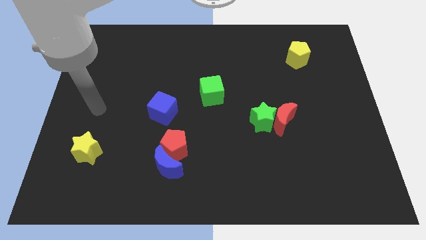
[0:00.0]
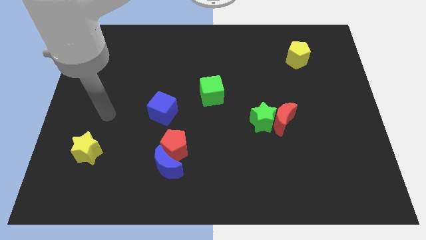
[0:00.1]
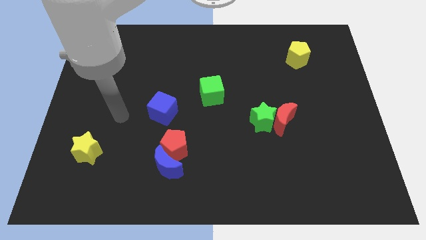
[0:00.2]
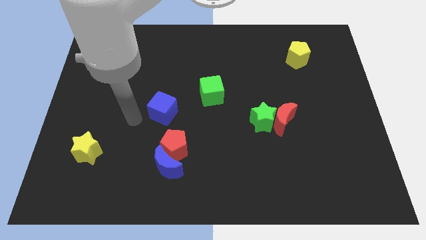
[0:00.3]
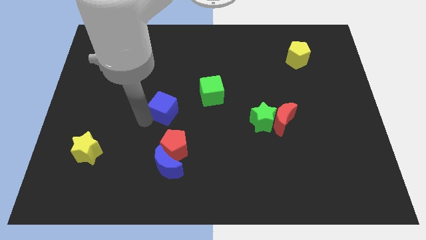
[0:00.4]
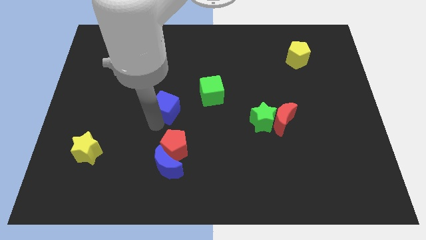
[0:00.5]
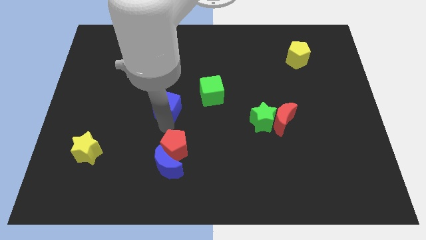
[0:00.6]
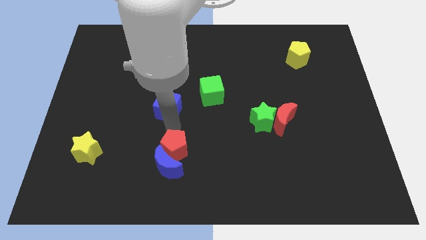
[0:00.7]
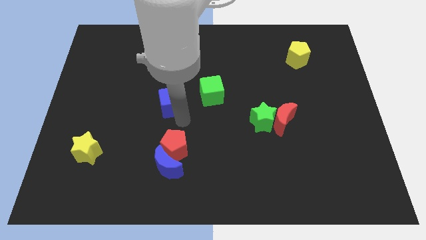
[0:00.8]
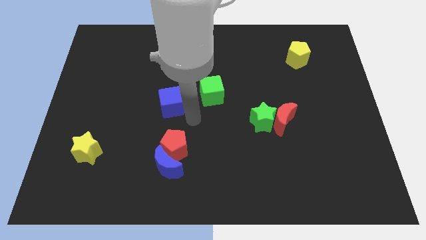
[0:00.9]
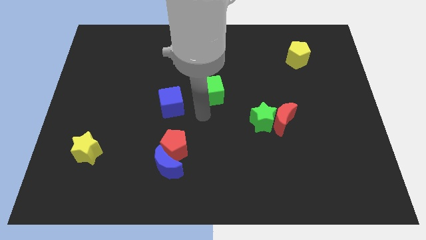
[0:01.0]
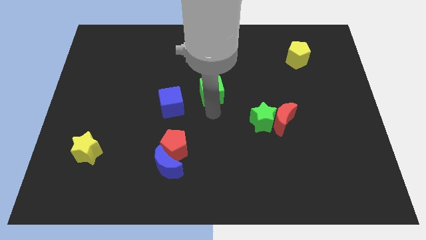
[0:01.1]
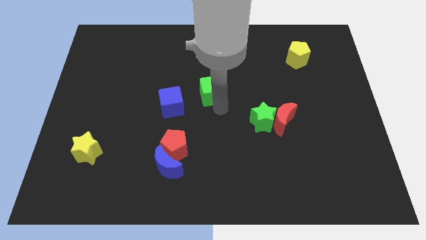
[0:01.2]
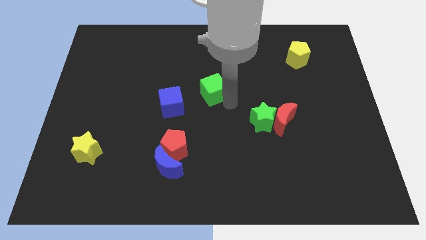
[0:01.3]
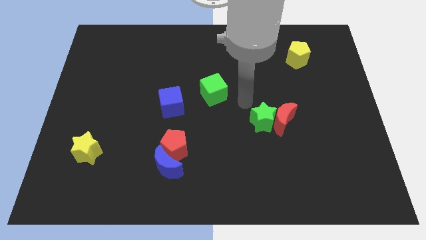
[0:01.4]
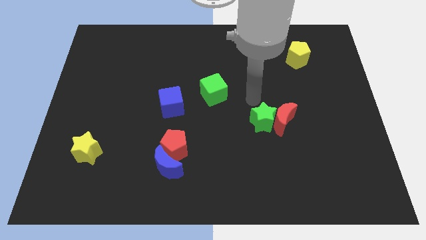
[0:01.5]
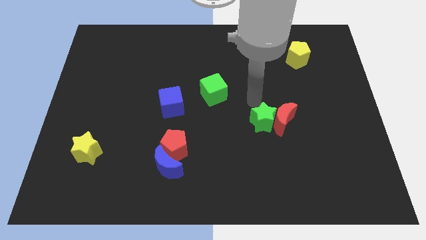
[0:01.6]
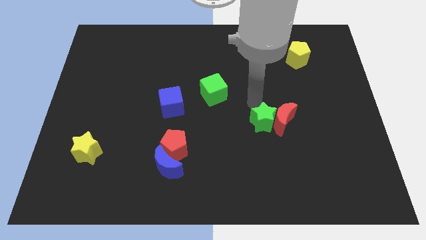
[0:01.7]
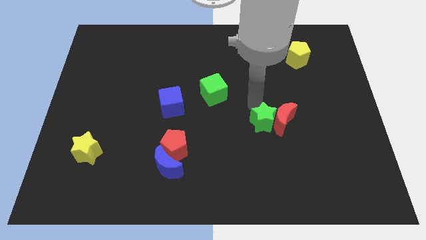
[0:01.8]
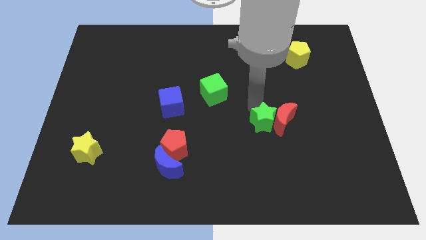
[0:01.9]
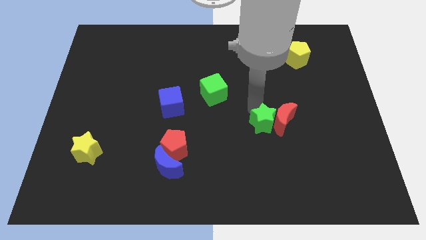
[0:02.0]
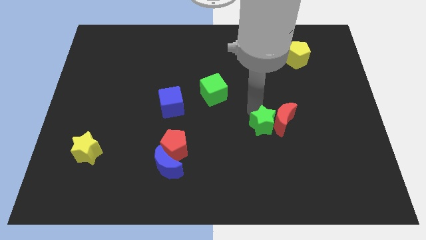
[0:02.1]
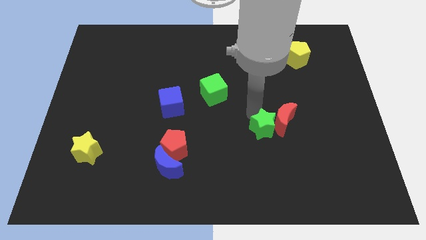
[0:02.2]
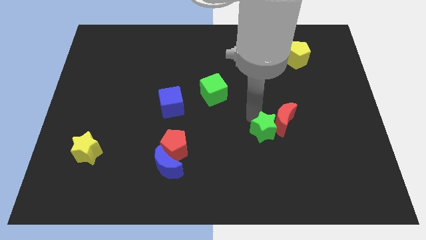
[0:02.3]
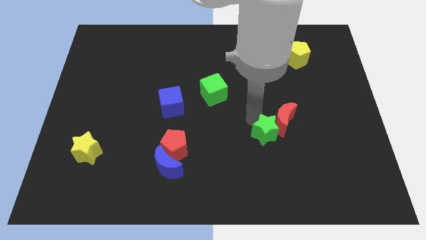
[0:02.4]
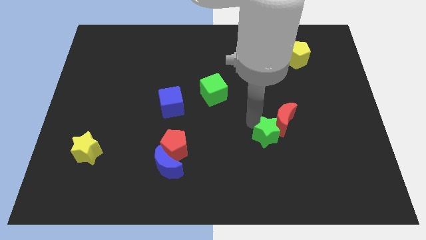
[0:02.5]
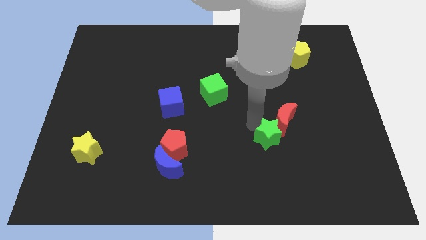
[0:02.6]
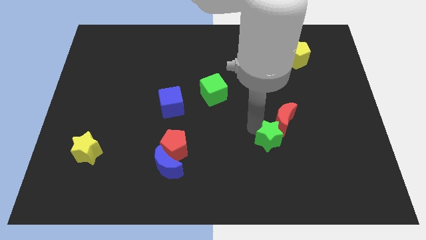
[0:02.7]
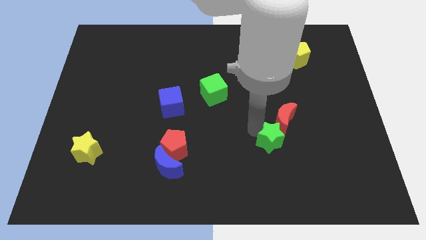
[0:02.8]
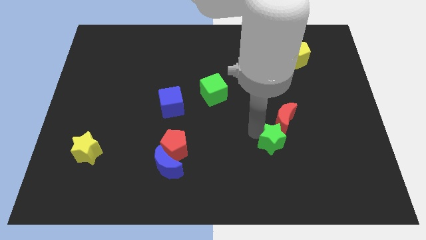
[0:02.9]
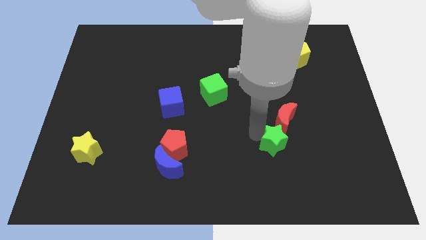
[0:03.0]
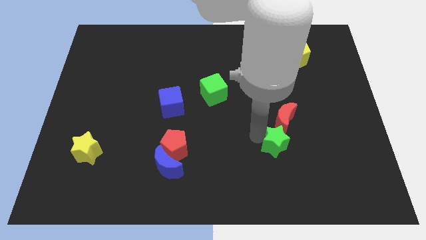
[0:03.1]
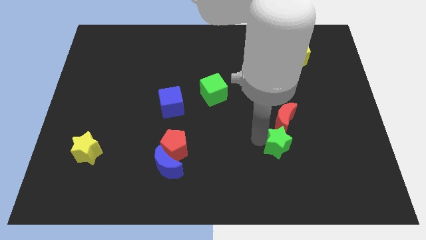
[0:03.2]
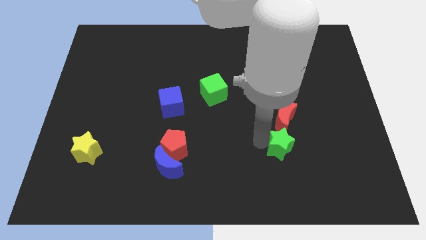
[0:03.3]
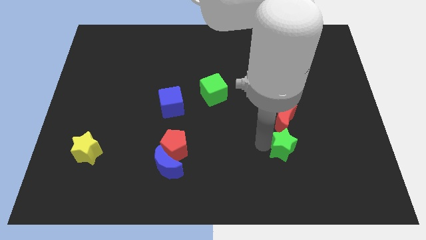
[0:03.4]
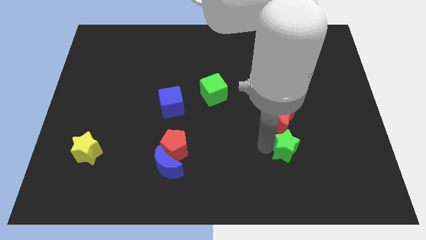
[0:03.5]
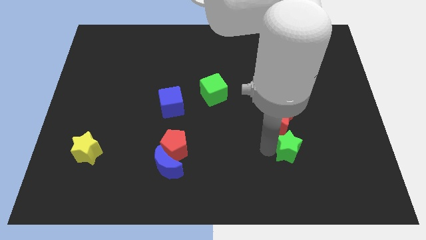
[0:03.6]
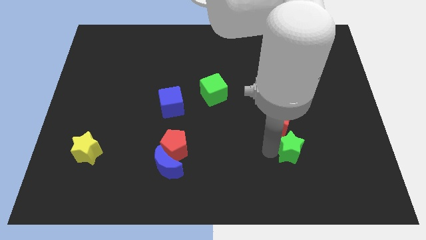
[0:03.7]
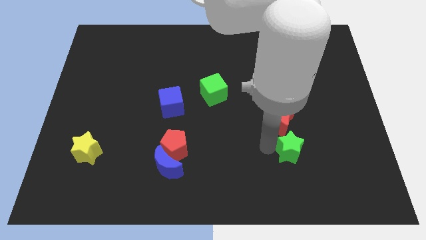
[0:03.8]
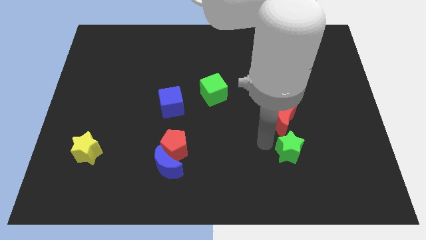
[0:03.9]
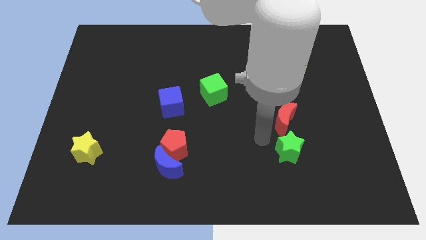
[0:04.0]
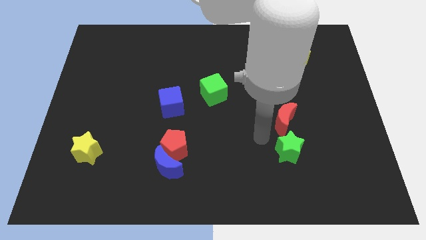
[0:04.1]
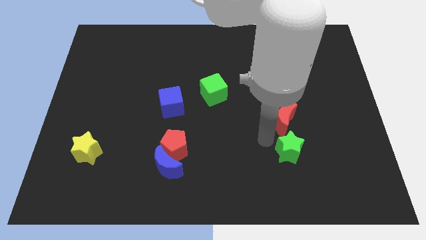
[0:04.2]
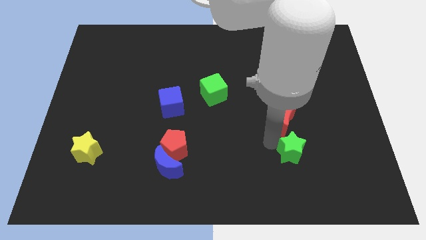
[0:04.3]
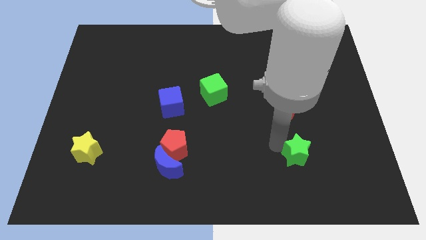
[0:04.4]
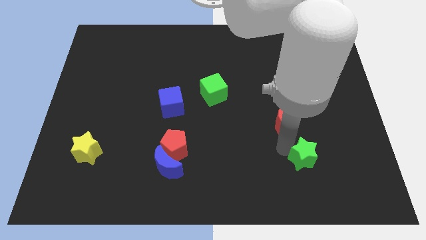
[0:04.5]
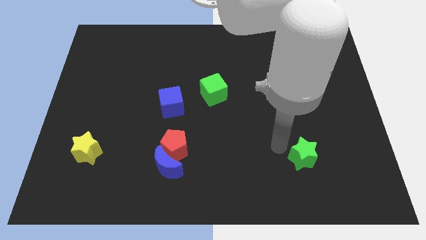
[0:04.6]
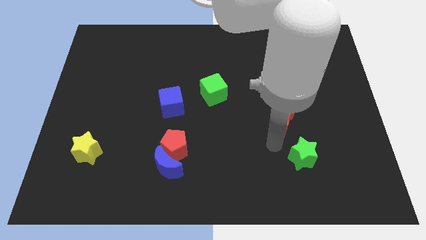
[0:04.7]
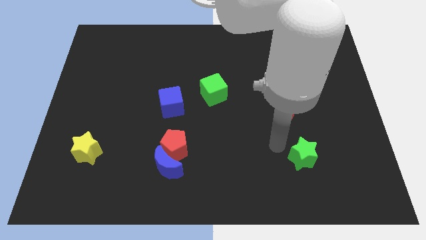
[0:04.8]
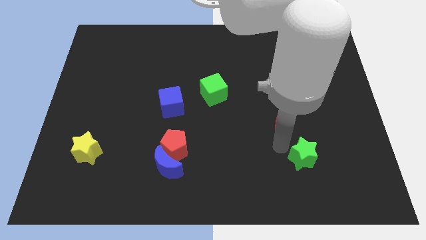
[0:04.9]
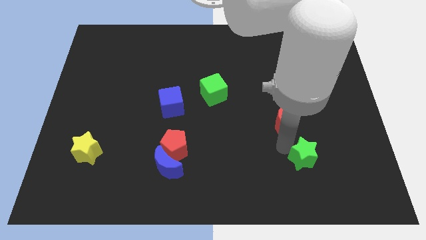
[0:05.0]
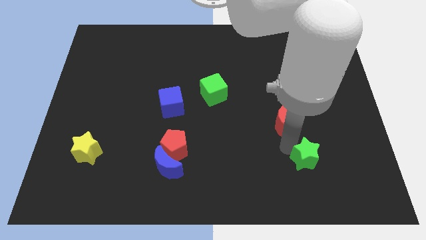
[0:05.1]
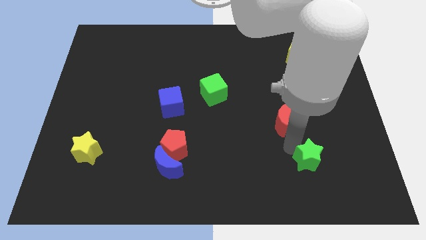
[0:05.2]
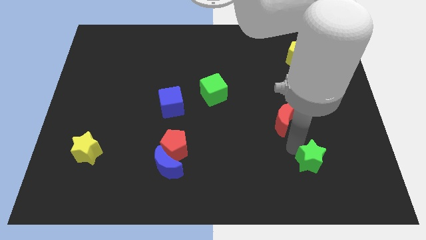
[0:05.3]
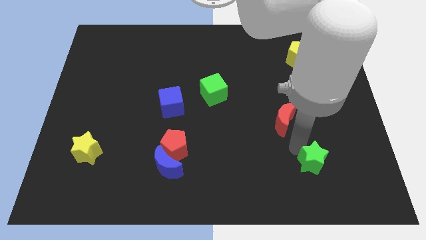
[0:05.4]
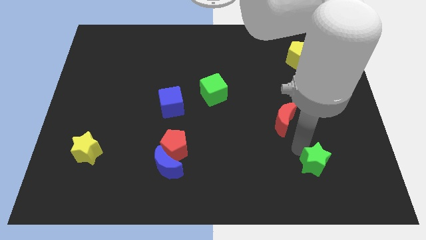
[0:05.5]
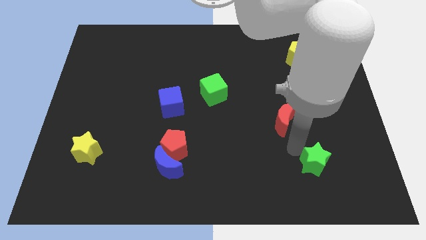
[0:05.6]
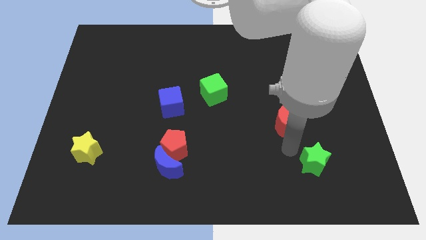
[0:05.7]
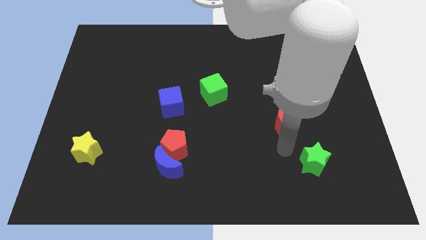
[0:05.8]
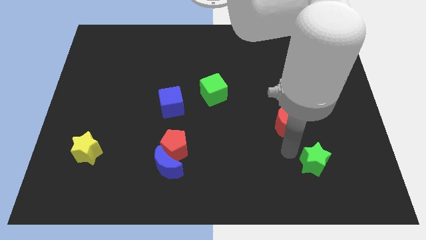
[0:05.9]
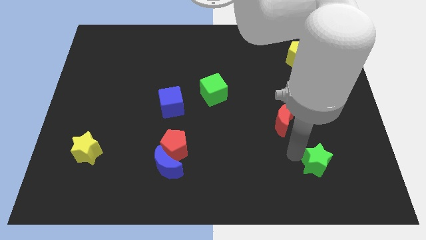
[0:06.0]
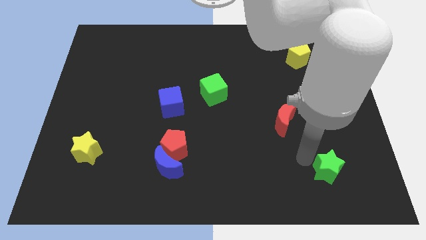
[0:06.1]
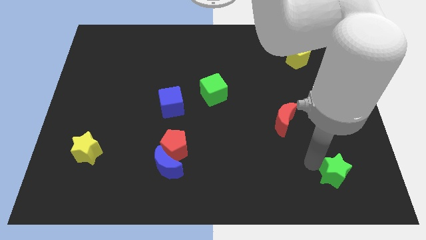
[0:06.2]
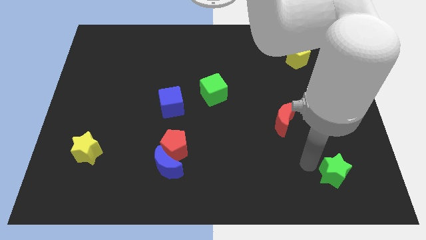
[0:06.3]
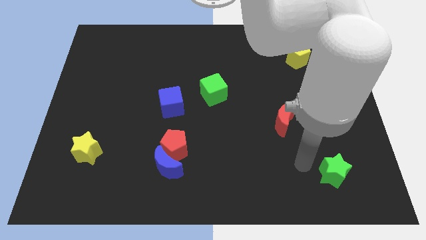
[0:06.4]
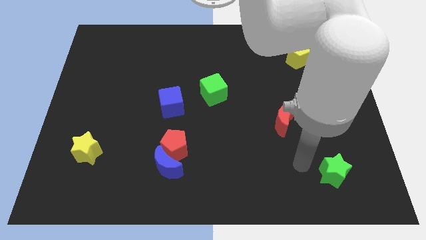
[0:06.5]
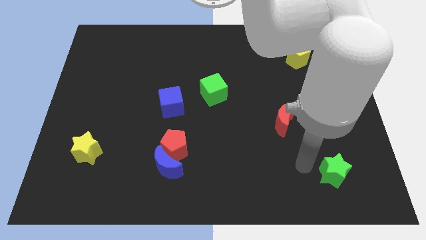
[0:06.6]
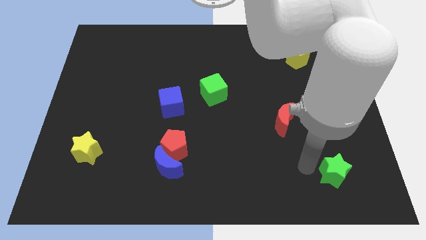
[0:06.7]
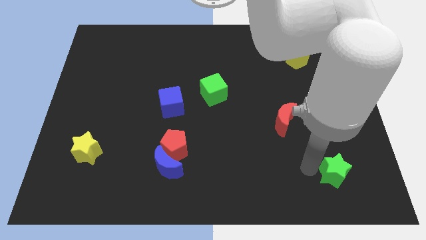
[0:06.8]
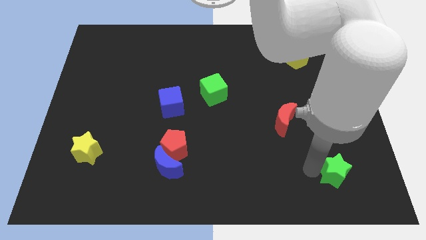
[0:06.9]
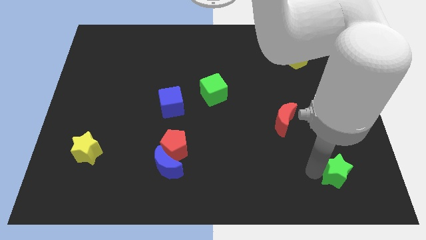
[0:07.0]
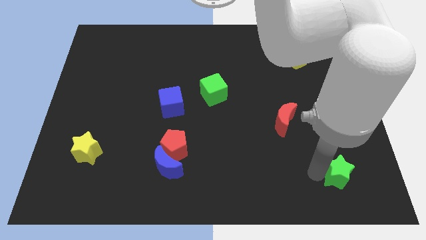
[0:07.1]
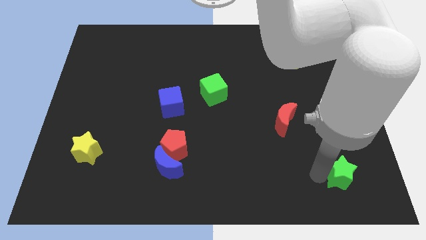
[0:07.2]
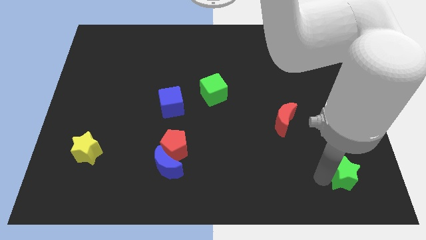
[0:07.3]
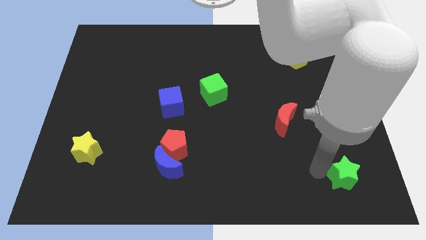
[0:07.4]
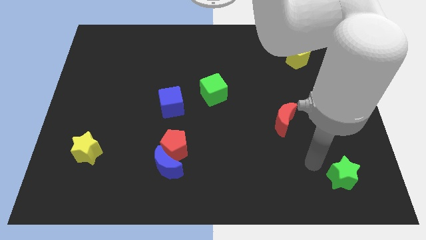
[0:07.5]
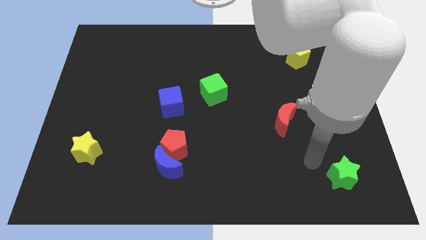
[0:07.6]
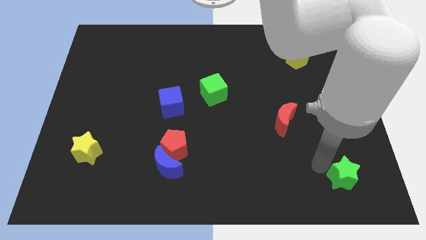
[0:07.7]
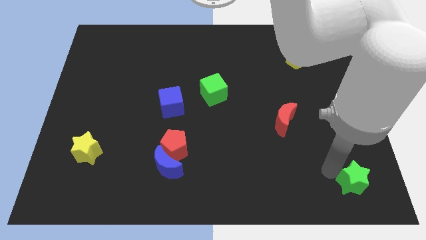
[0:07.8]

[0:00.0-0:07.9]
slide the green star to the lower right corner
